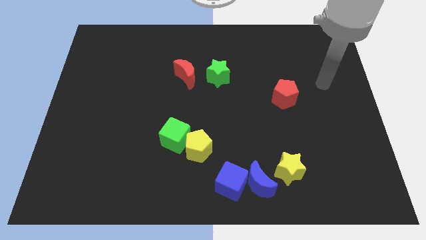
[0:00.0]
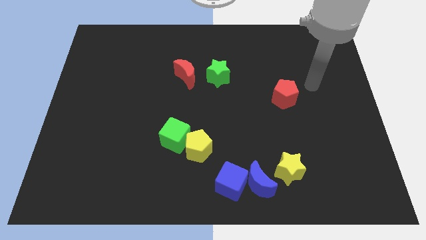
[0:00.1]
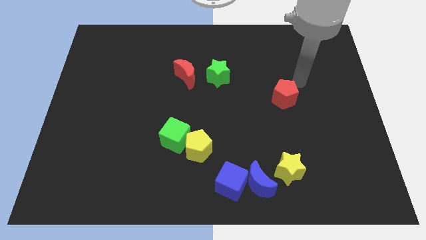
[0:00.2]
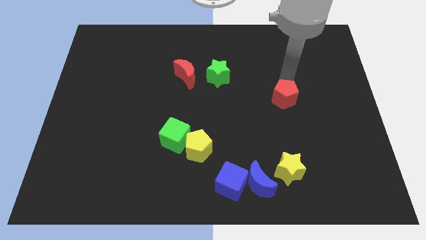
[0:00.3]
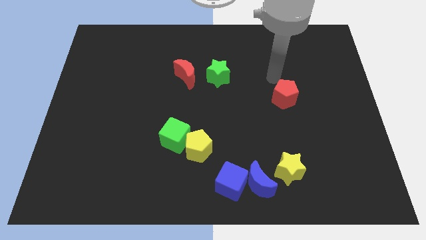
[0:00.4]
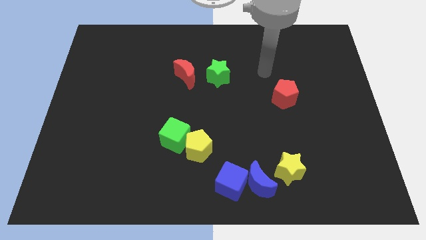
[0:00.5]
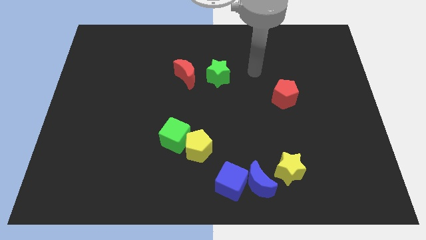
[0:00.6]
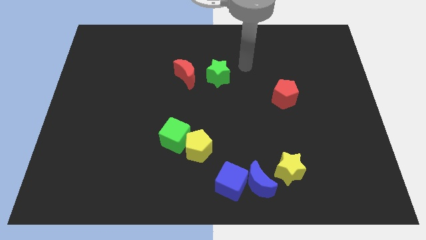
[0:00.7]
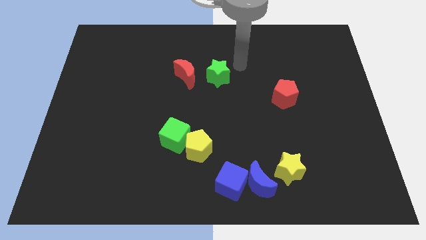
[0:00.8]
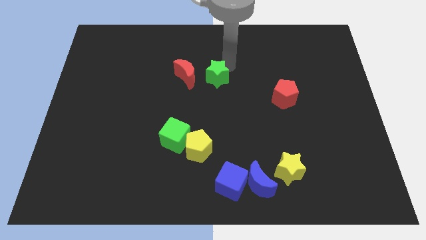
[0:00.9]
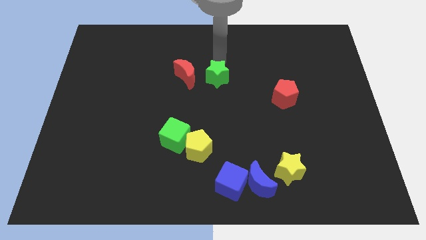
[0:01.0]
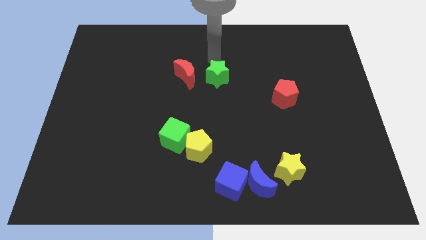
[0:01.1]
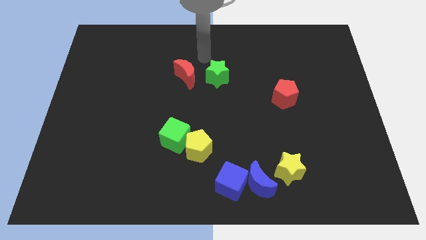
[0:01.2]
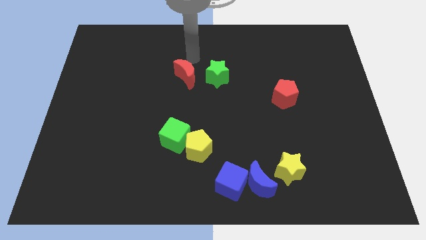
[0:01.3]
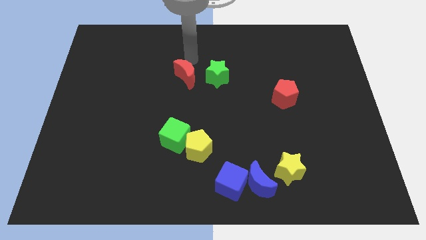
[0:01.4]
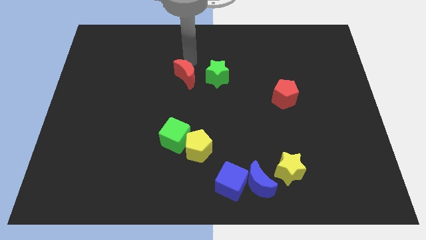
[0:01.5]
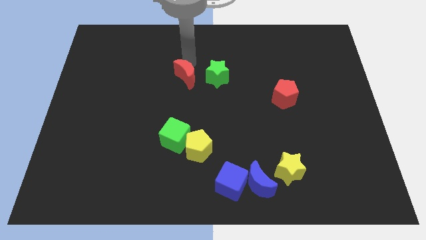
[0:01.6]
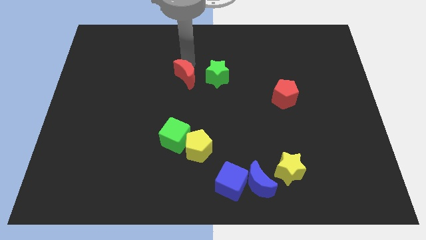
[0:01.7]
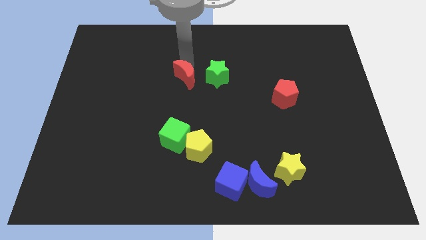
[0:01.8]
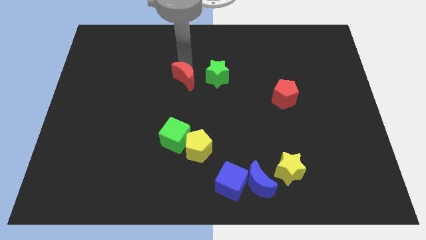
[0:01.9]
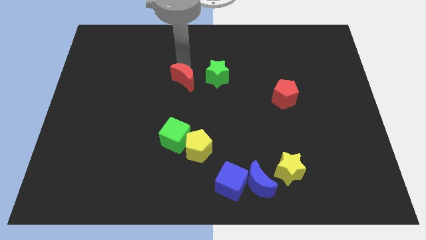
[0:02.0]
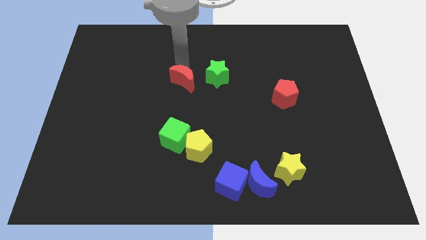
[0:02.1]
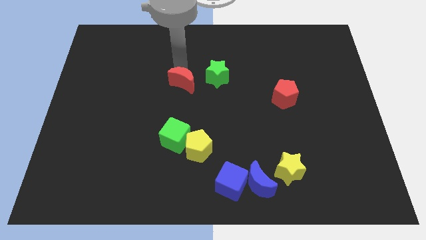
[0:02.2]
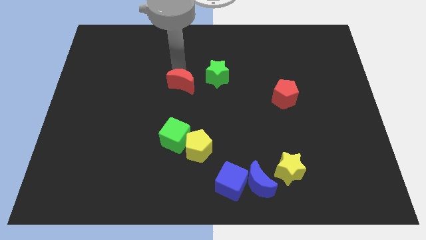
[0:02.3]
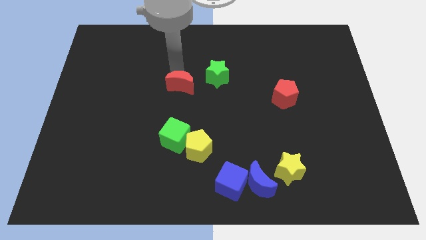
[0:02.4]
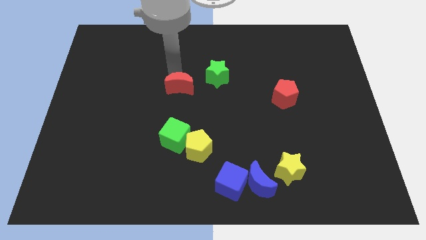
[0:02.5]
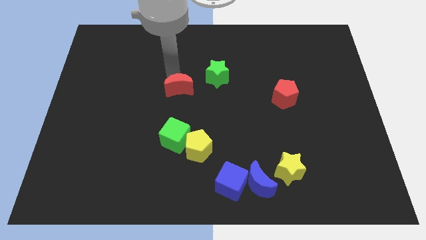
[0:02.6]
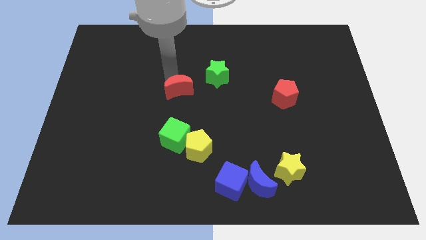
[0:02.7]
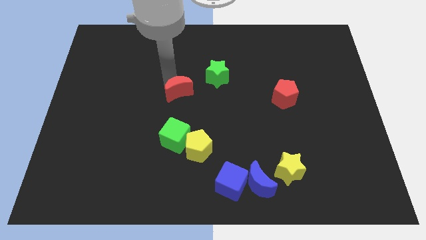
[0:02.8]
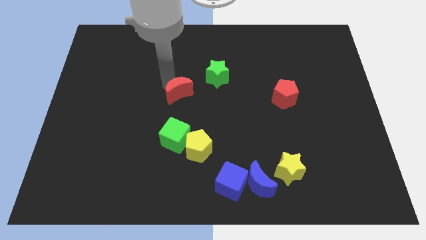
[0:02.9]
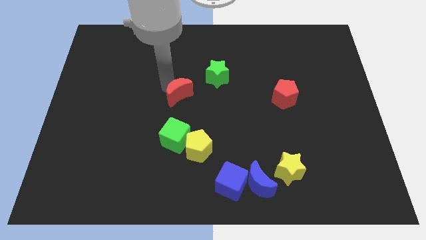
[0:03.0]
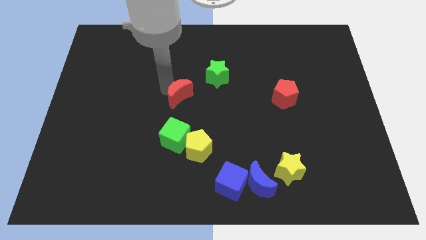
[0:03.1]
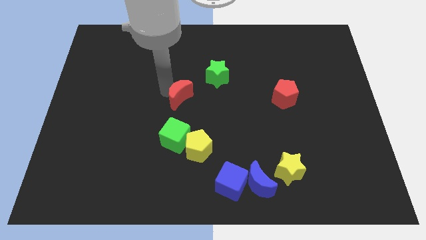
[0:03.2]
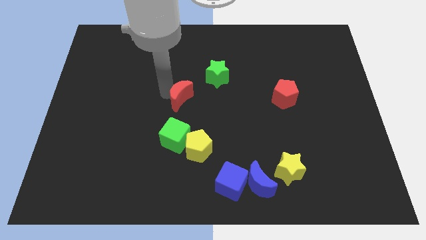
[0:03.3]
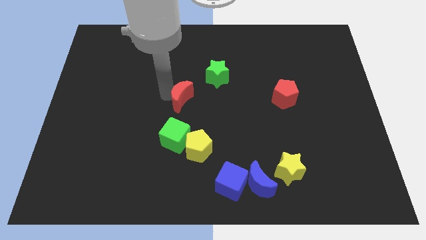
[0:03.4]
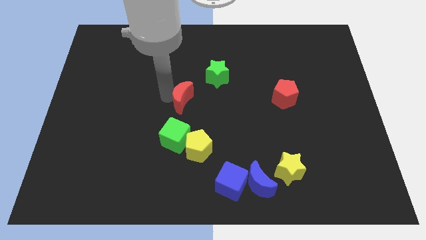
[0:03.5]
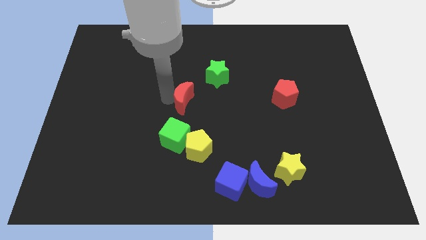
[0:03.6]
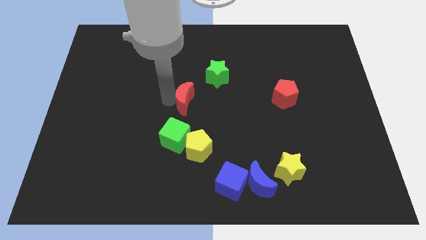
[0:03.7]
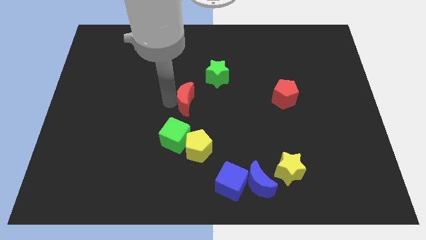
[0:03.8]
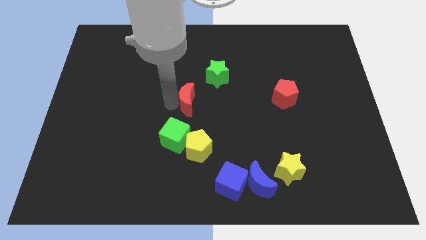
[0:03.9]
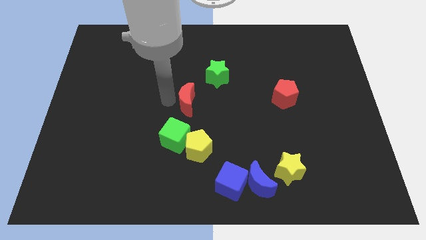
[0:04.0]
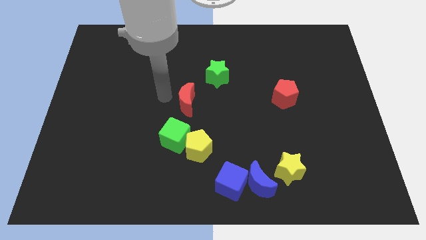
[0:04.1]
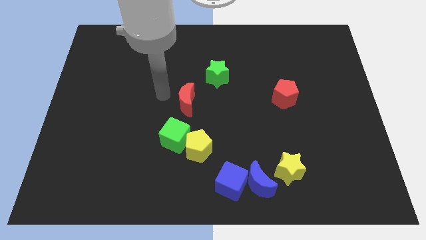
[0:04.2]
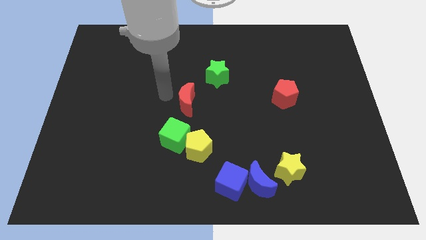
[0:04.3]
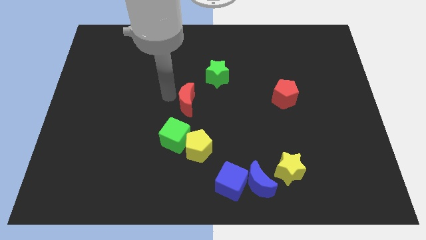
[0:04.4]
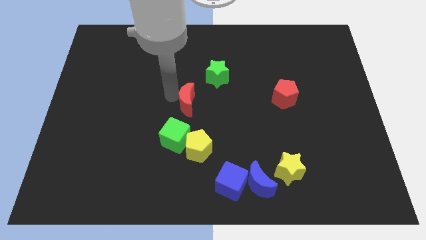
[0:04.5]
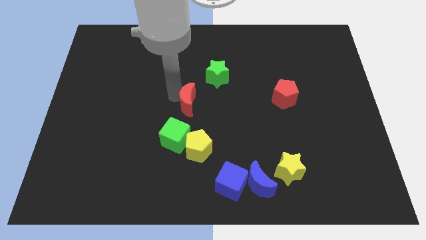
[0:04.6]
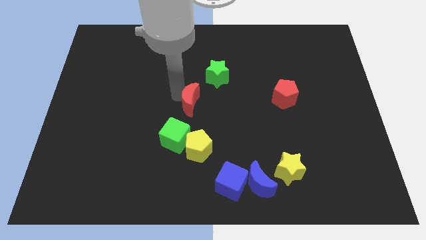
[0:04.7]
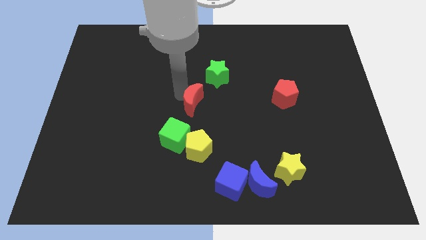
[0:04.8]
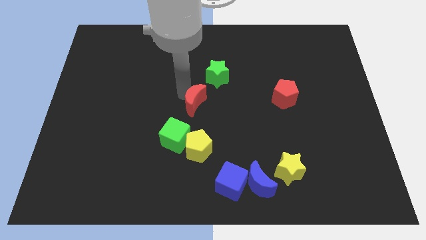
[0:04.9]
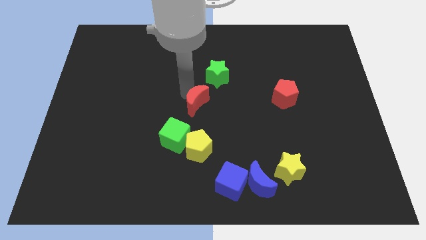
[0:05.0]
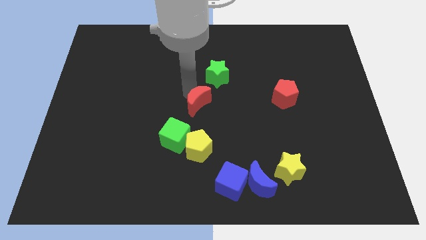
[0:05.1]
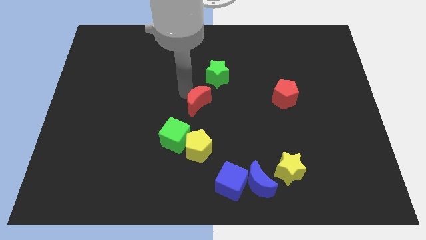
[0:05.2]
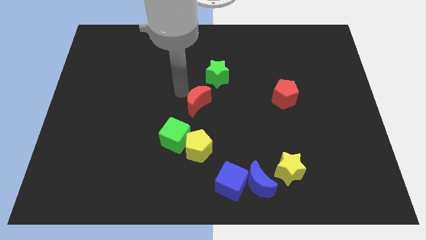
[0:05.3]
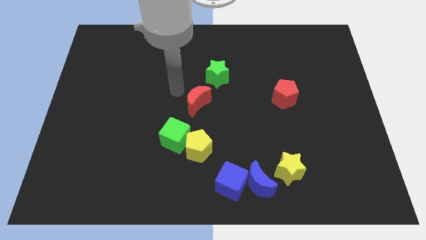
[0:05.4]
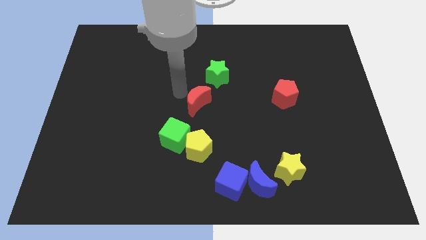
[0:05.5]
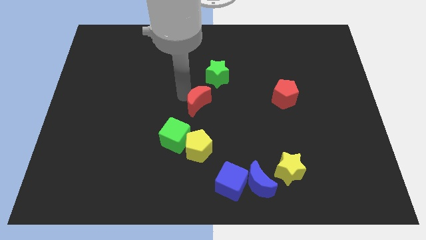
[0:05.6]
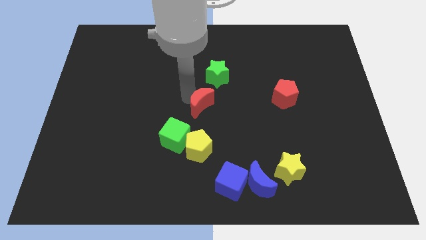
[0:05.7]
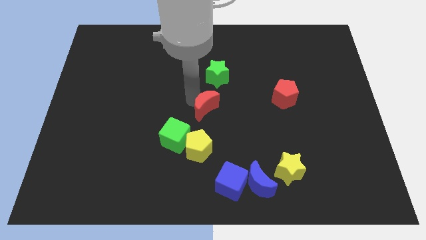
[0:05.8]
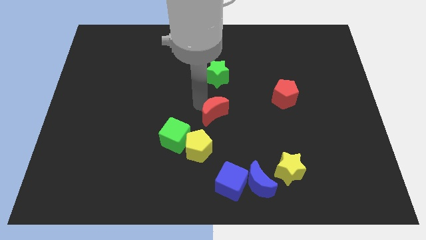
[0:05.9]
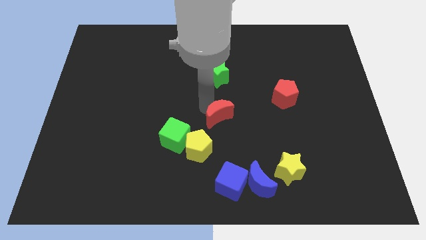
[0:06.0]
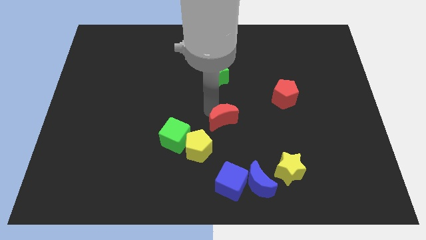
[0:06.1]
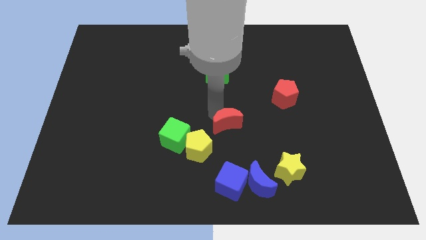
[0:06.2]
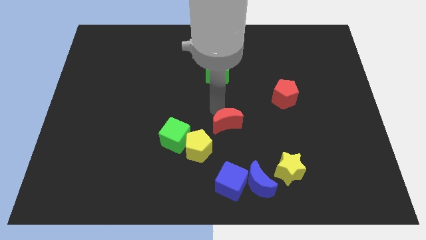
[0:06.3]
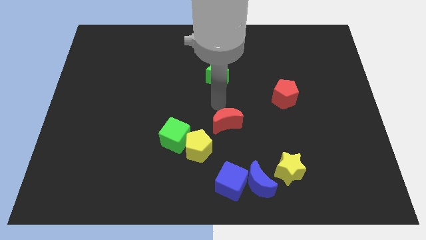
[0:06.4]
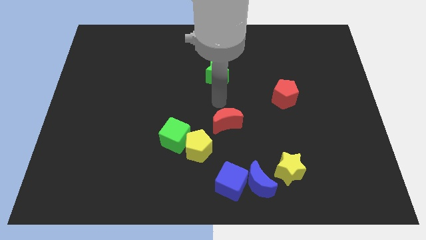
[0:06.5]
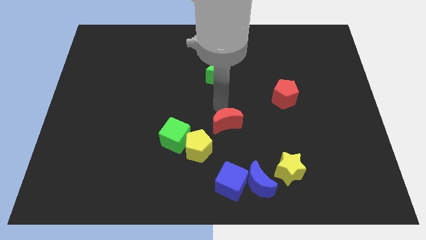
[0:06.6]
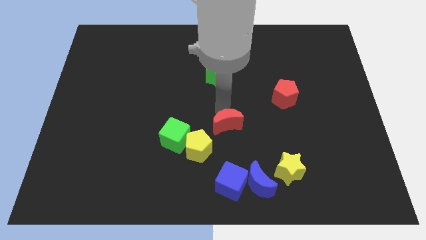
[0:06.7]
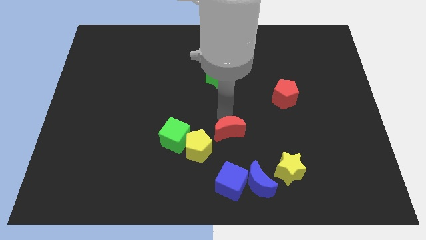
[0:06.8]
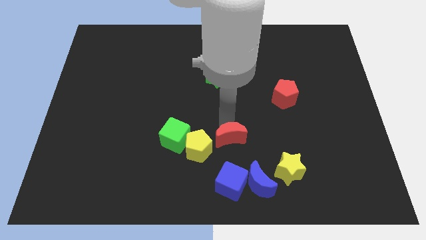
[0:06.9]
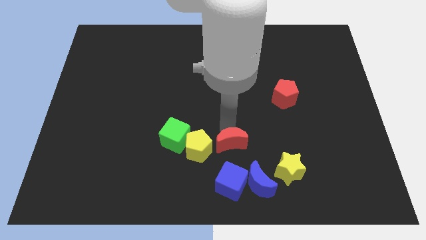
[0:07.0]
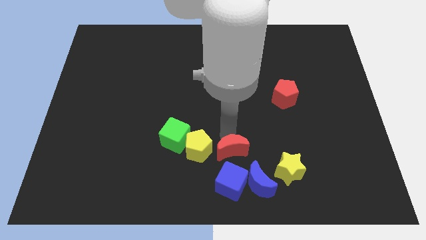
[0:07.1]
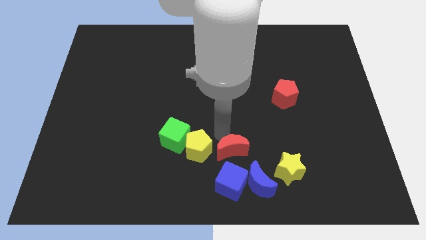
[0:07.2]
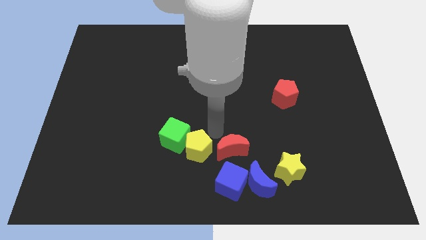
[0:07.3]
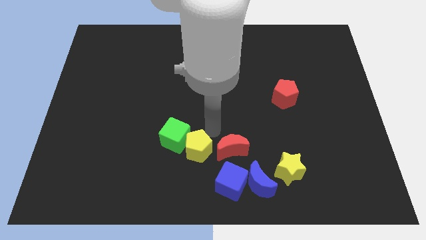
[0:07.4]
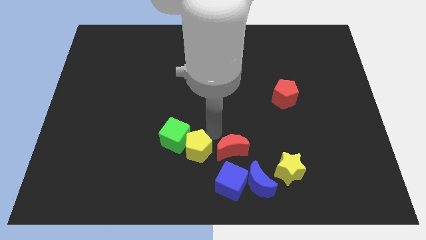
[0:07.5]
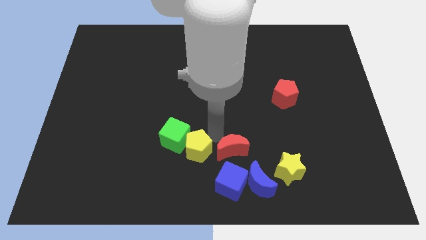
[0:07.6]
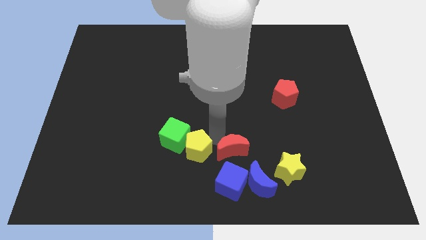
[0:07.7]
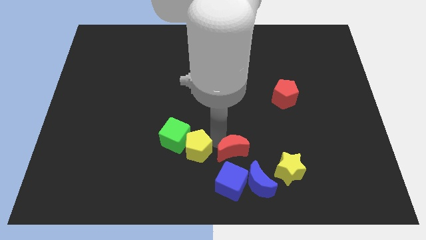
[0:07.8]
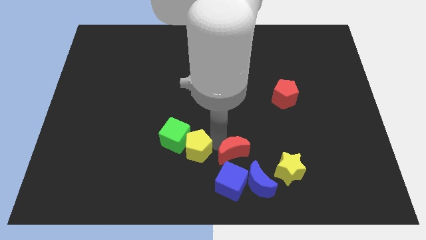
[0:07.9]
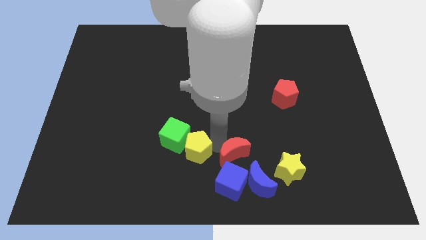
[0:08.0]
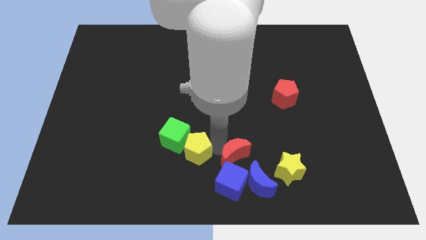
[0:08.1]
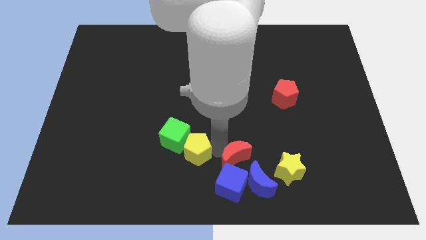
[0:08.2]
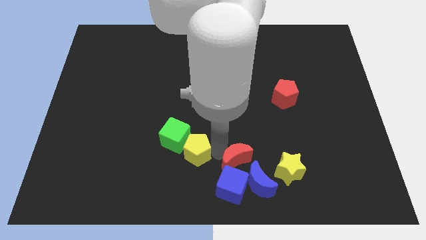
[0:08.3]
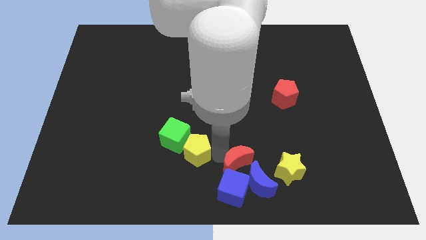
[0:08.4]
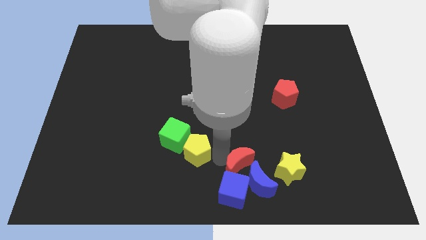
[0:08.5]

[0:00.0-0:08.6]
move the red moon next to the blue moon
